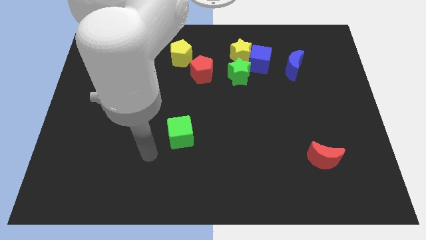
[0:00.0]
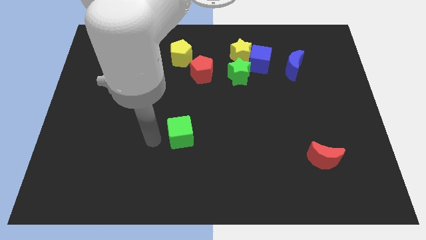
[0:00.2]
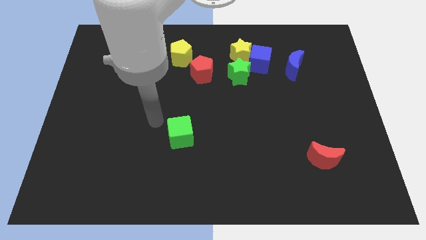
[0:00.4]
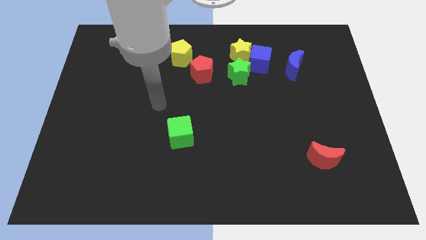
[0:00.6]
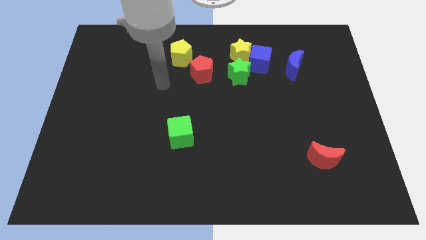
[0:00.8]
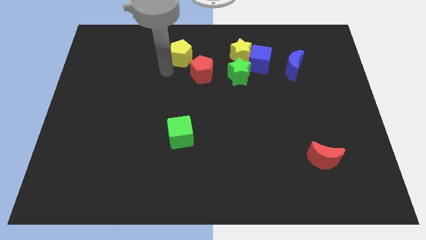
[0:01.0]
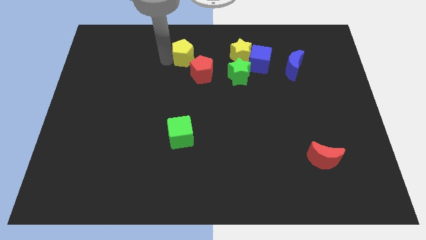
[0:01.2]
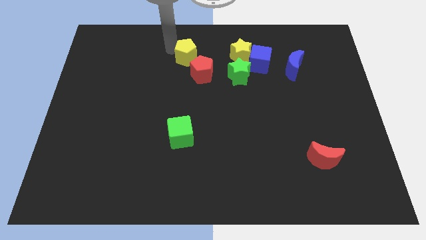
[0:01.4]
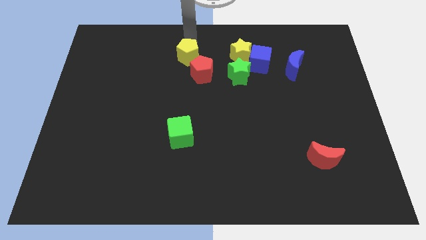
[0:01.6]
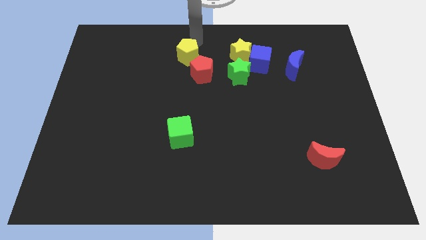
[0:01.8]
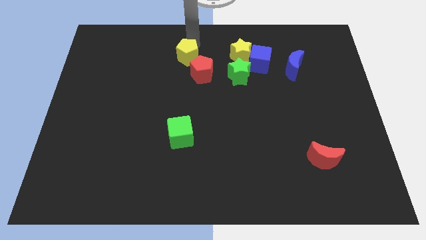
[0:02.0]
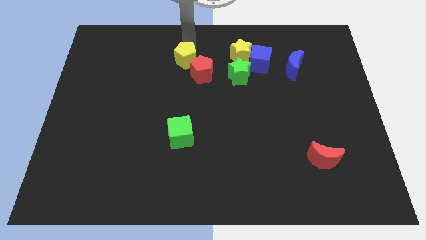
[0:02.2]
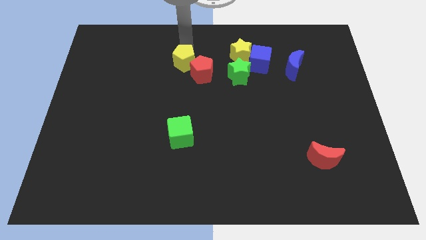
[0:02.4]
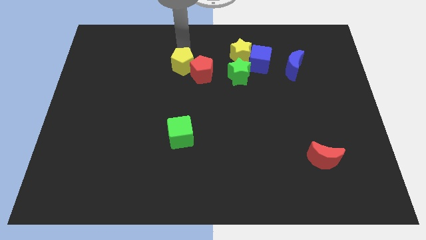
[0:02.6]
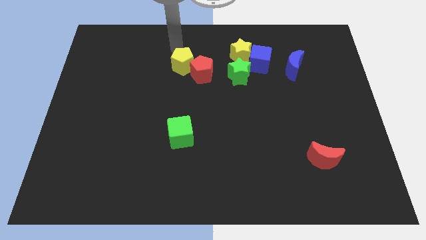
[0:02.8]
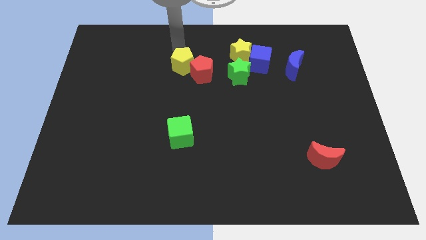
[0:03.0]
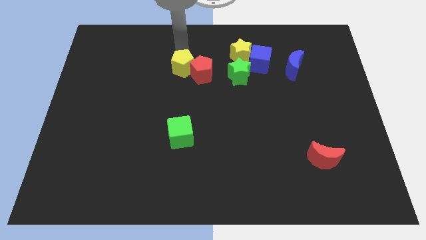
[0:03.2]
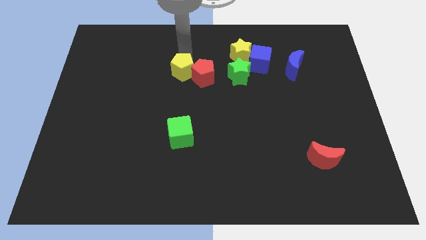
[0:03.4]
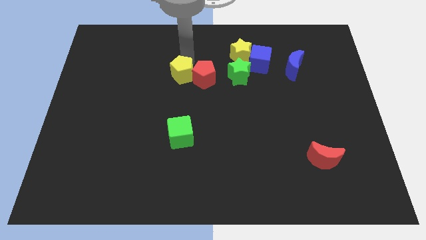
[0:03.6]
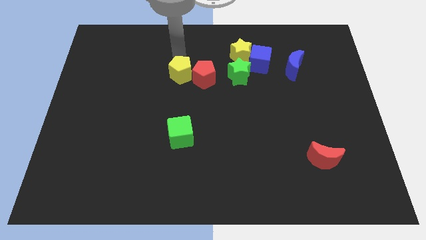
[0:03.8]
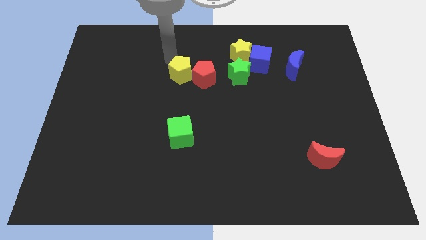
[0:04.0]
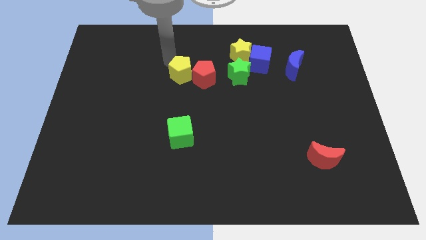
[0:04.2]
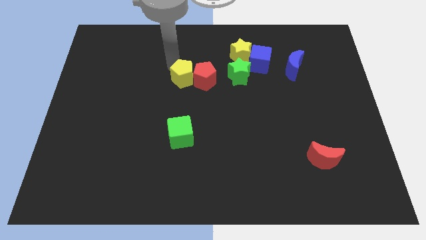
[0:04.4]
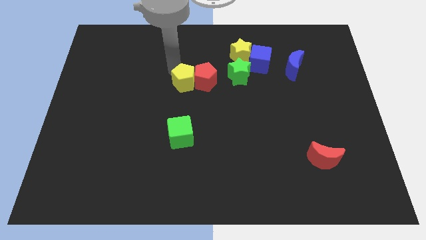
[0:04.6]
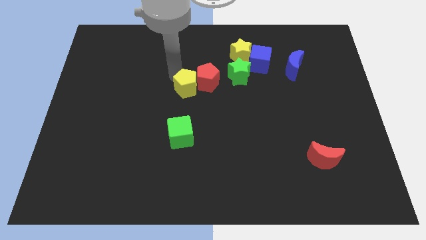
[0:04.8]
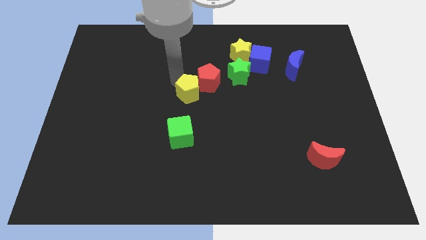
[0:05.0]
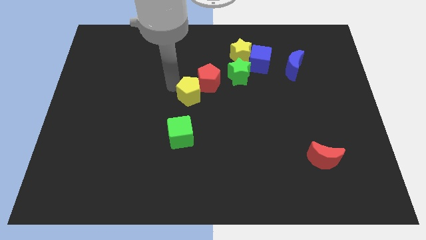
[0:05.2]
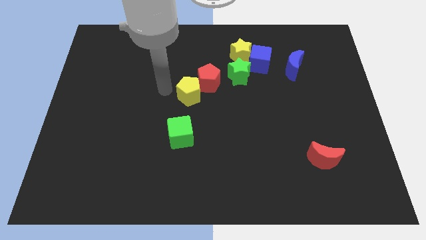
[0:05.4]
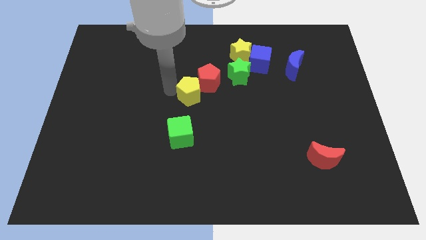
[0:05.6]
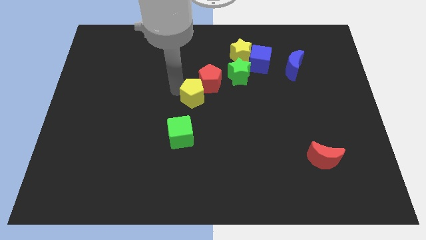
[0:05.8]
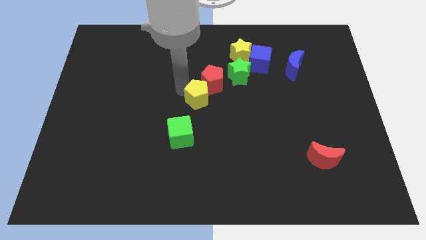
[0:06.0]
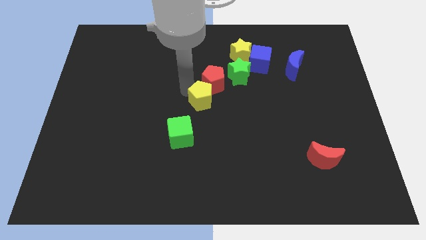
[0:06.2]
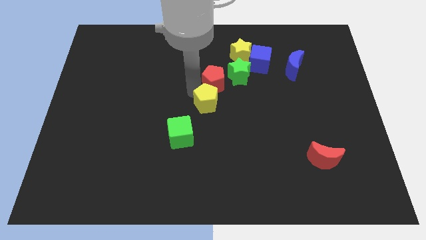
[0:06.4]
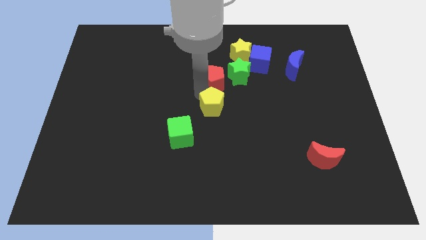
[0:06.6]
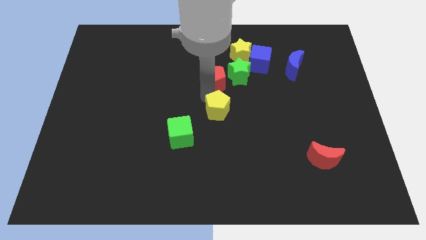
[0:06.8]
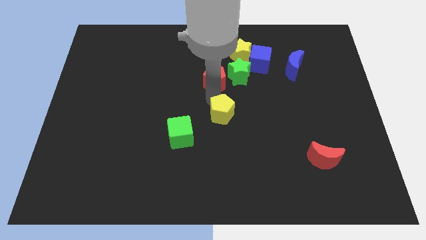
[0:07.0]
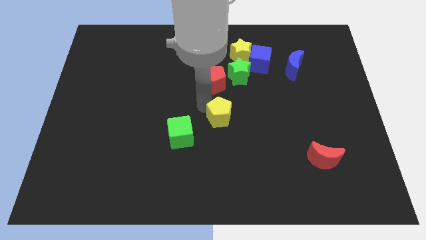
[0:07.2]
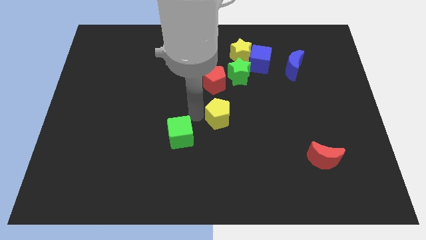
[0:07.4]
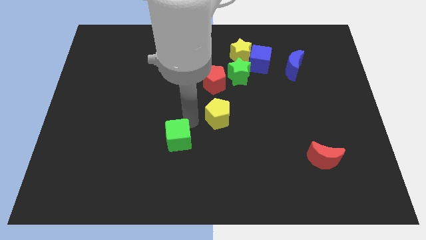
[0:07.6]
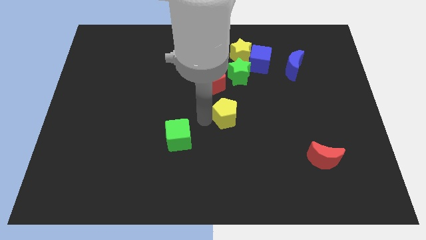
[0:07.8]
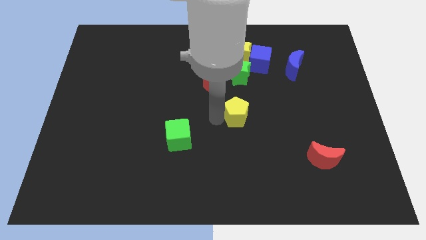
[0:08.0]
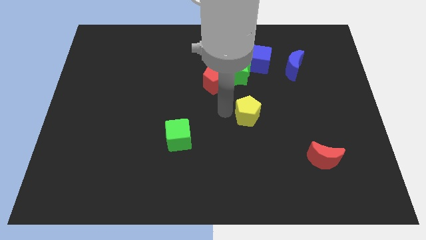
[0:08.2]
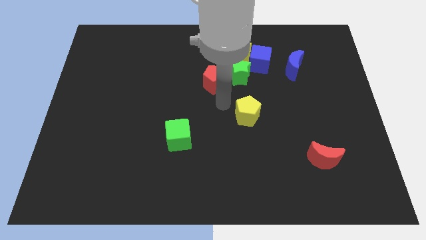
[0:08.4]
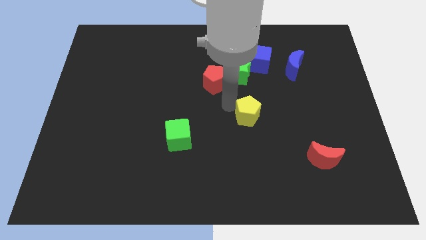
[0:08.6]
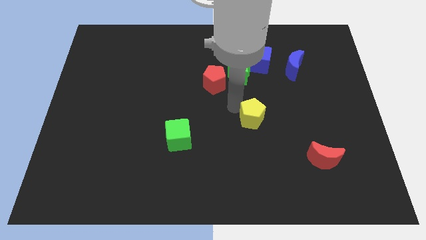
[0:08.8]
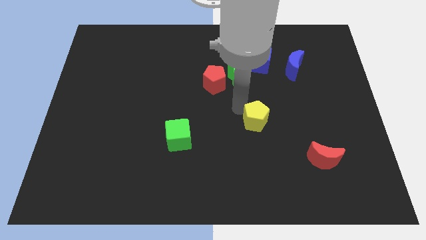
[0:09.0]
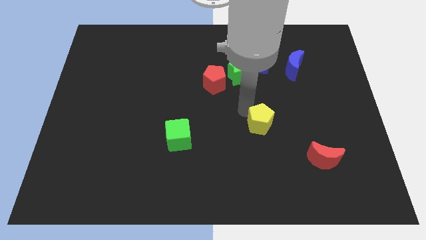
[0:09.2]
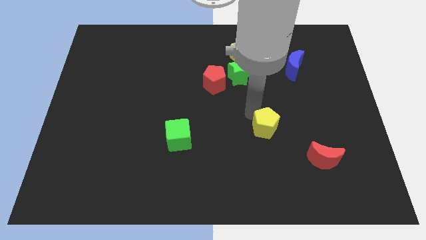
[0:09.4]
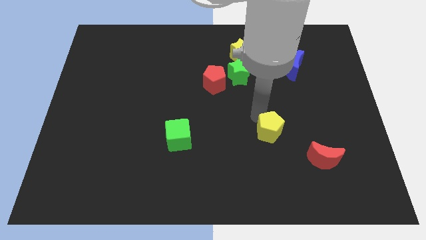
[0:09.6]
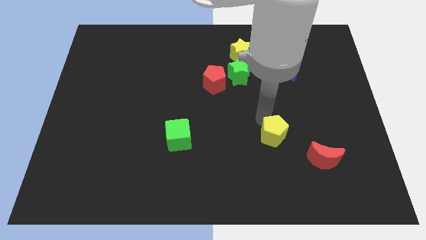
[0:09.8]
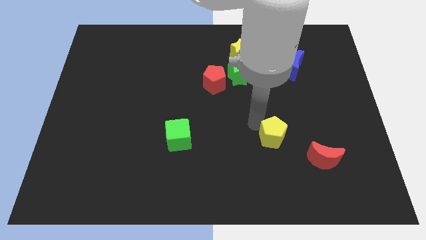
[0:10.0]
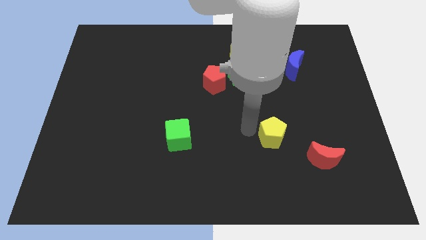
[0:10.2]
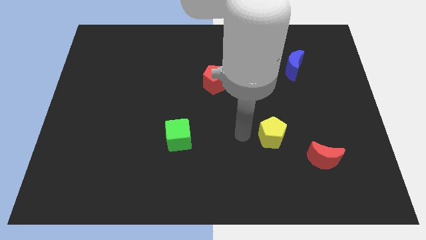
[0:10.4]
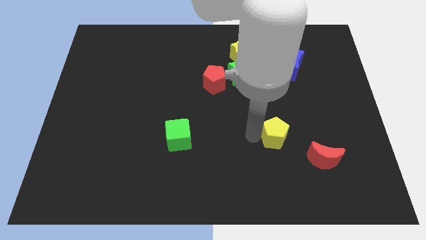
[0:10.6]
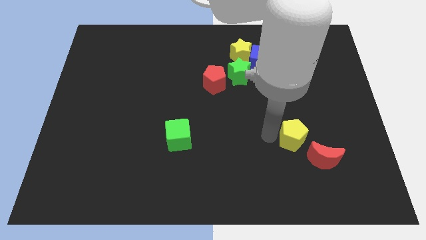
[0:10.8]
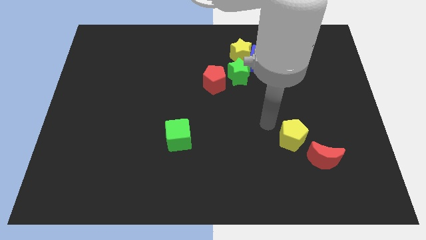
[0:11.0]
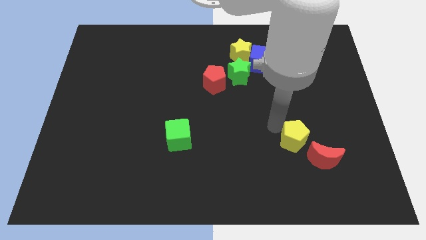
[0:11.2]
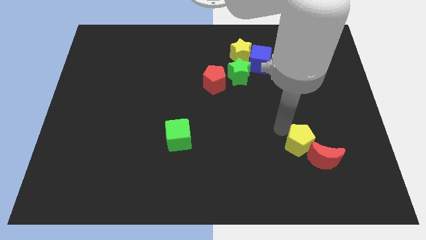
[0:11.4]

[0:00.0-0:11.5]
put the yellow pentagon close to the red moon
